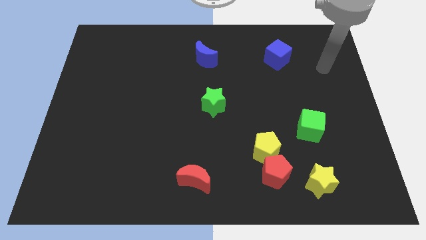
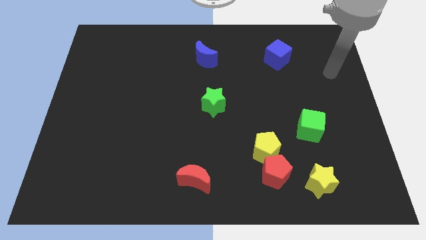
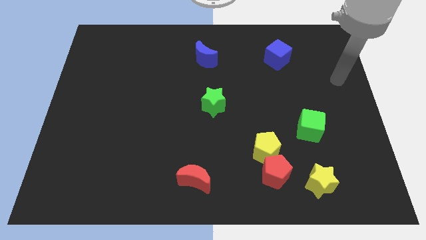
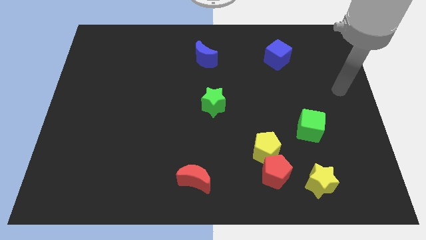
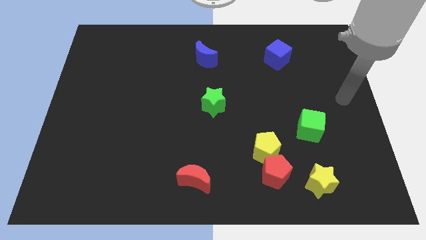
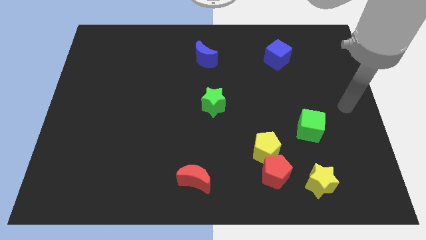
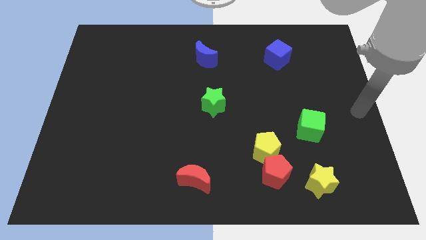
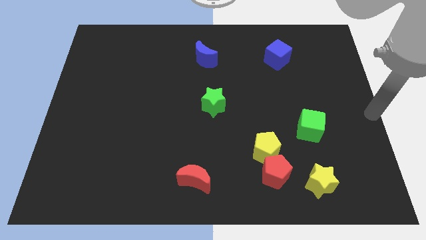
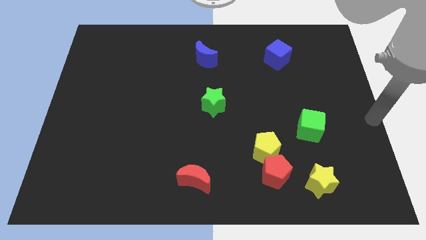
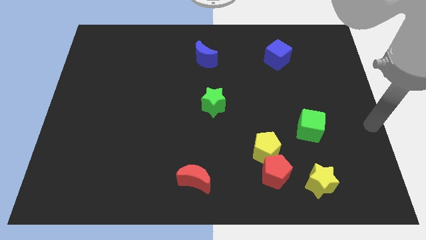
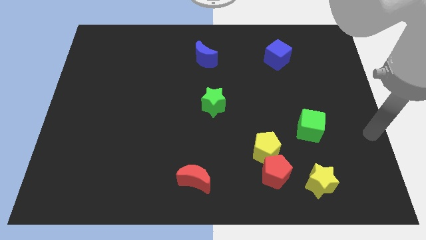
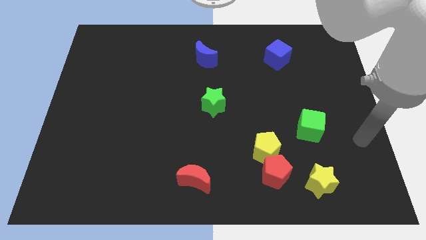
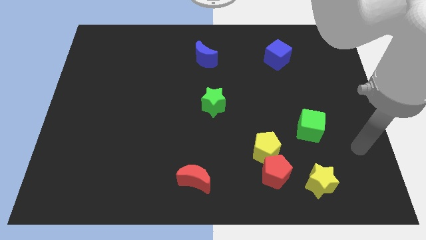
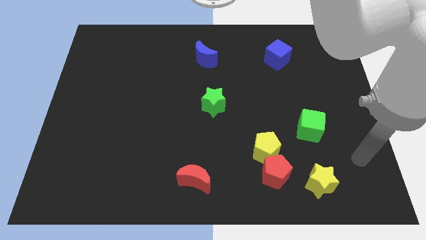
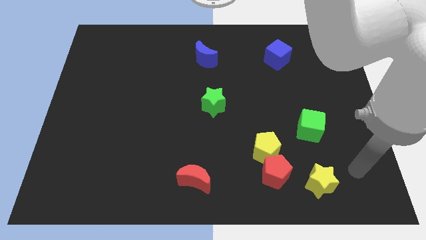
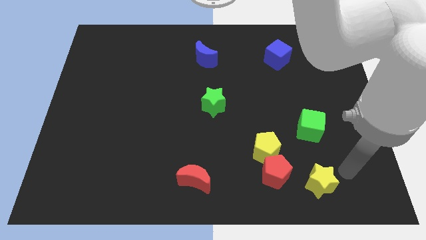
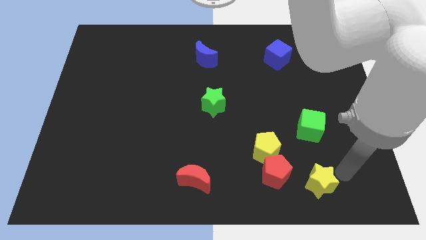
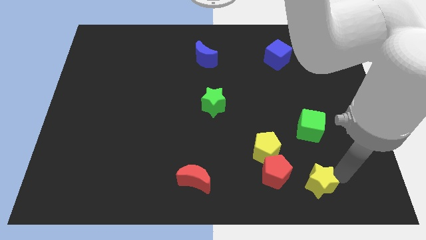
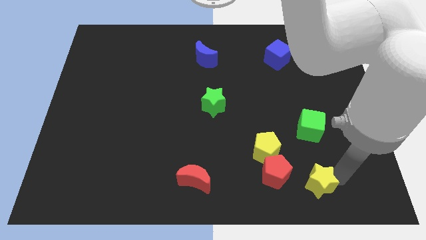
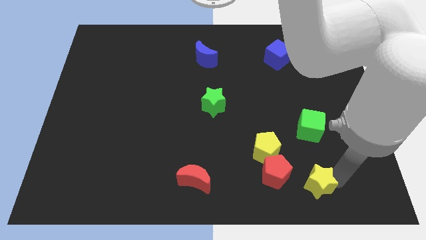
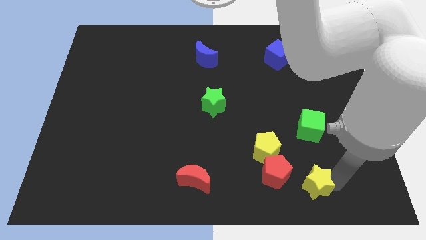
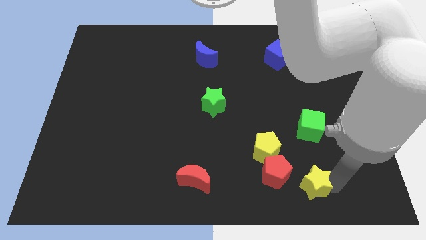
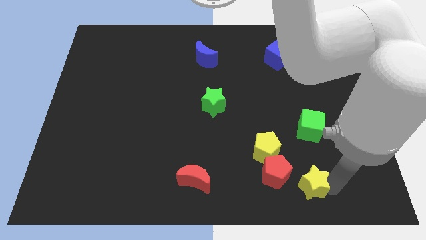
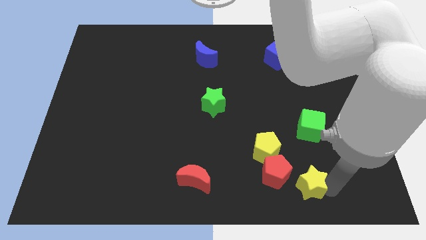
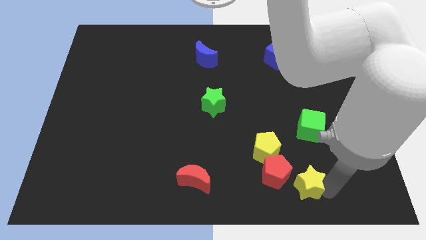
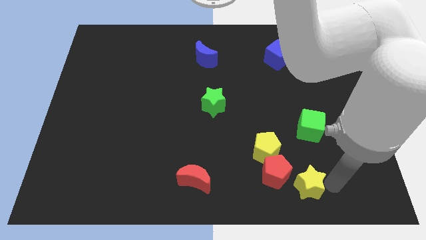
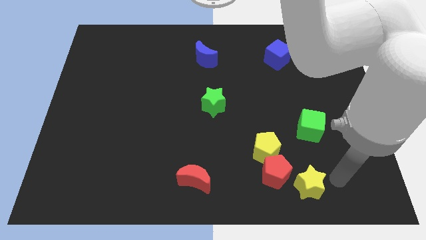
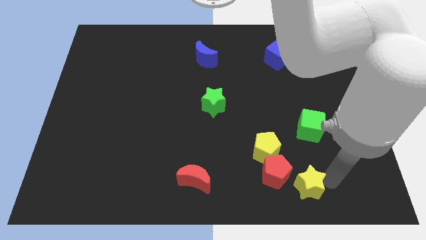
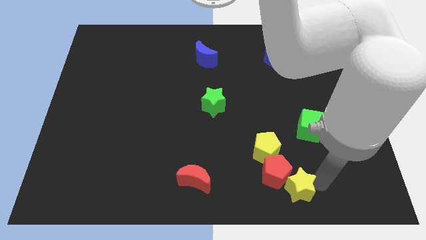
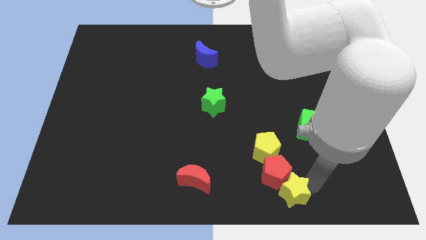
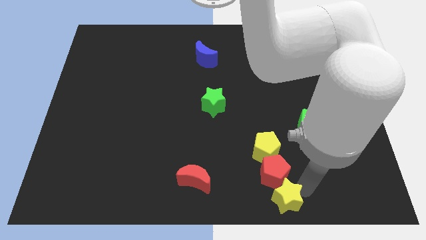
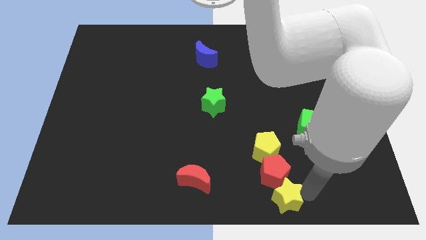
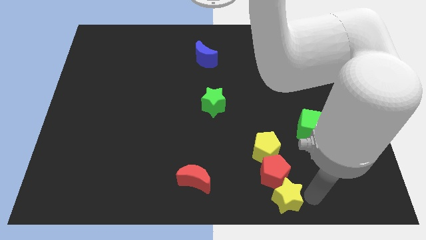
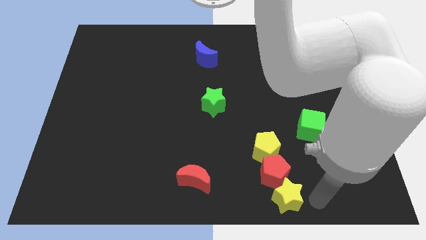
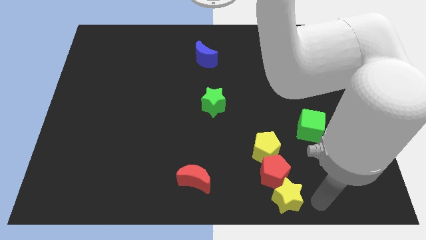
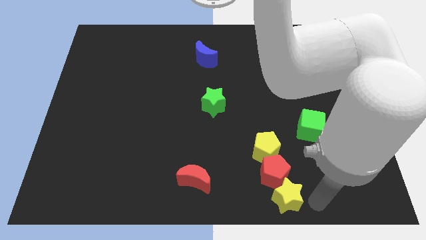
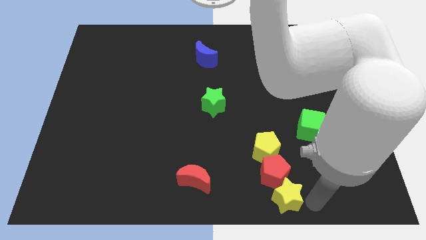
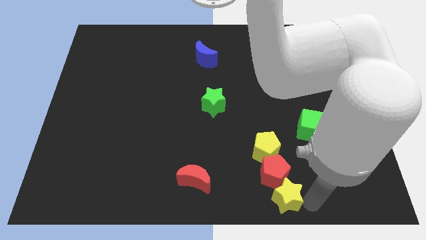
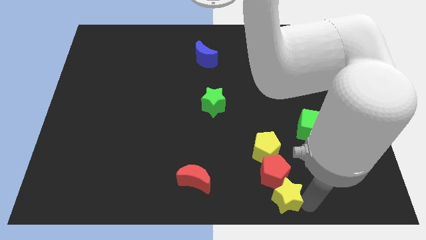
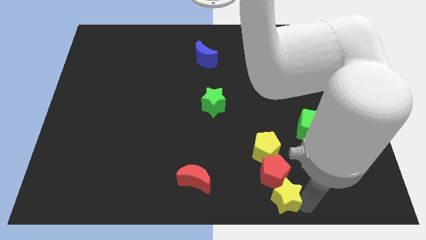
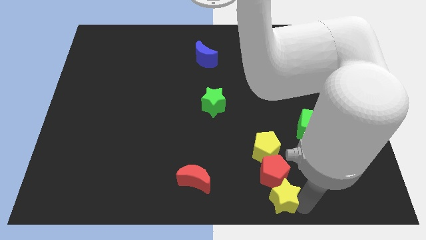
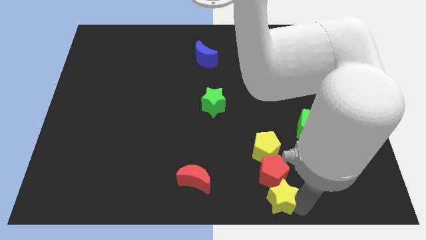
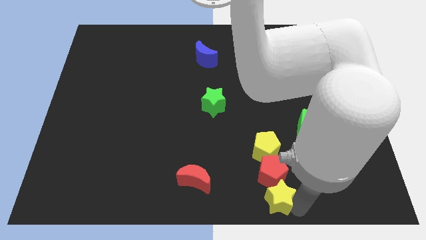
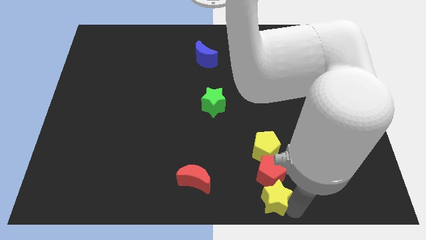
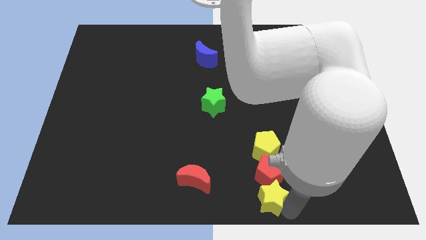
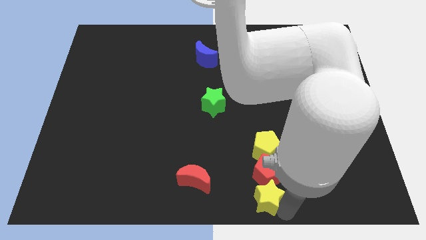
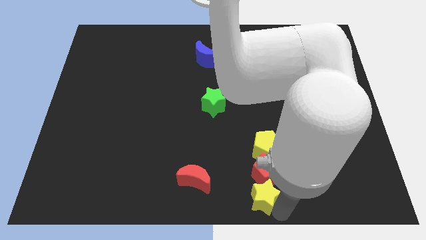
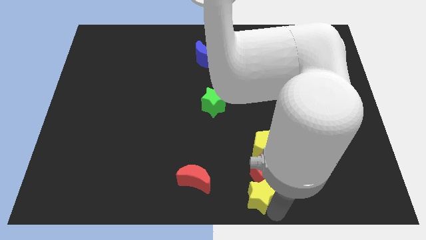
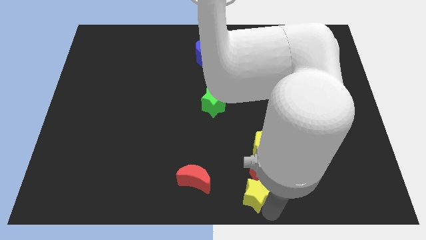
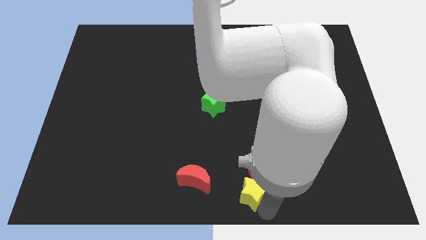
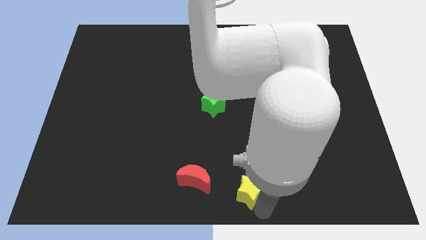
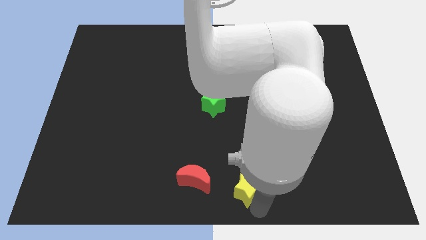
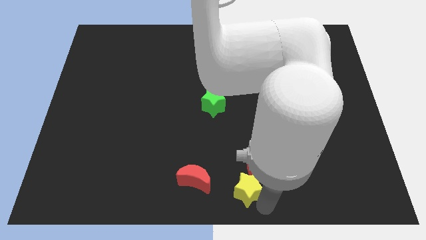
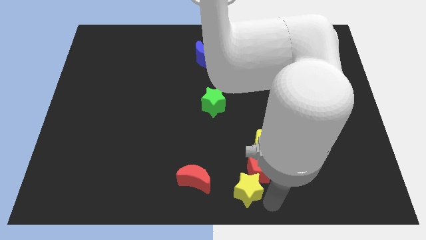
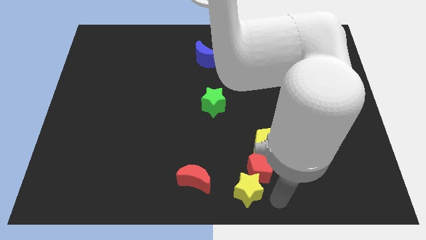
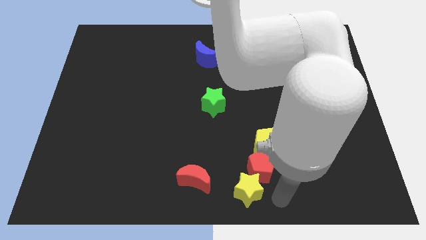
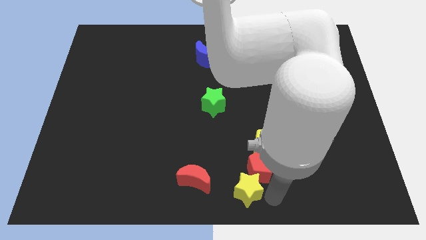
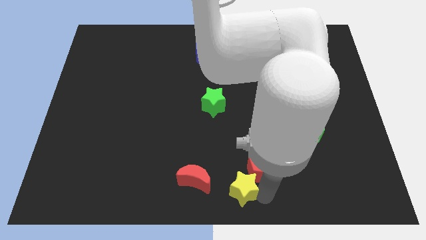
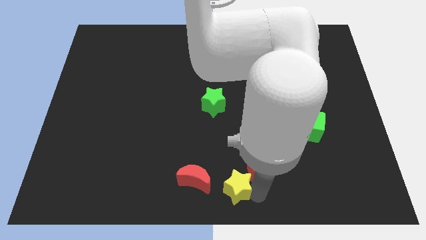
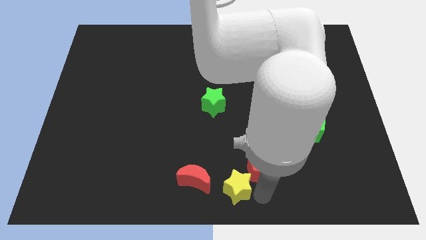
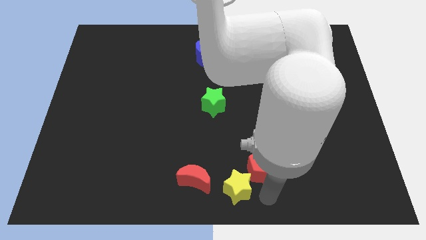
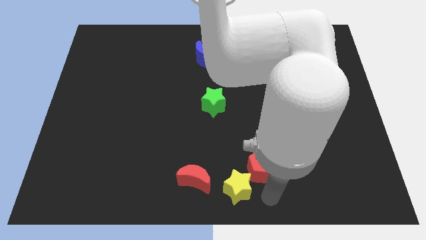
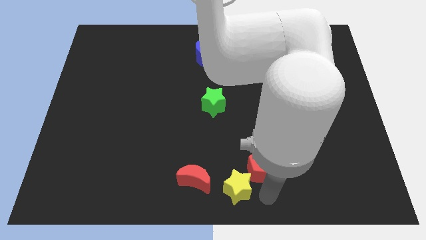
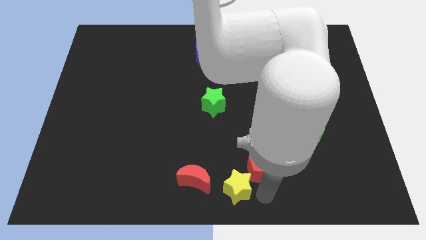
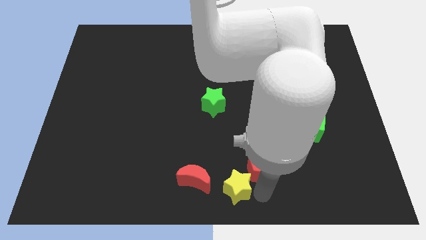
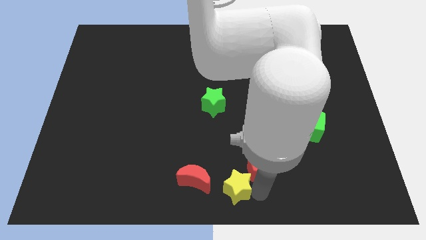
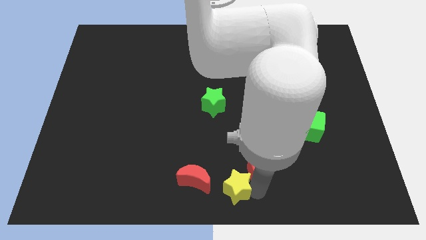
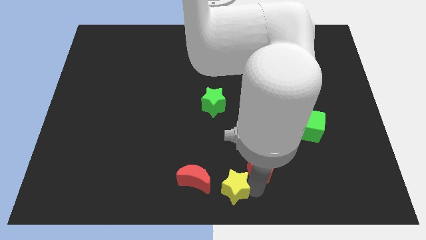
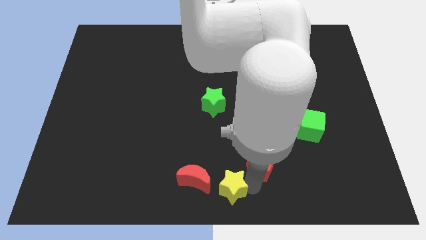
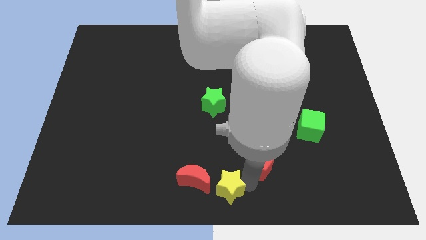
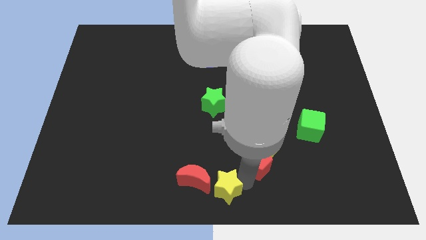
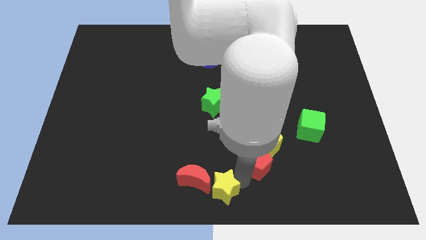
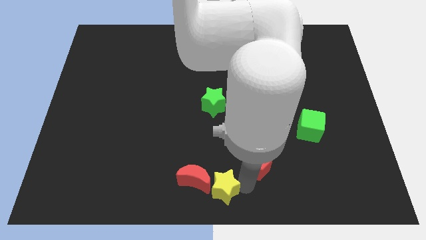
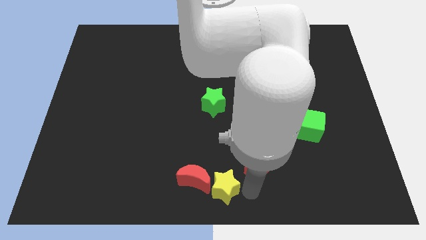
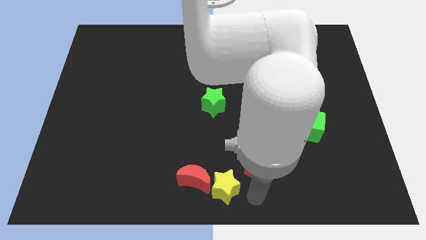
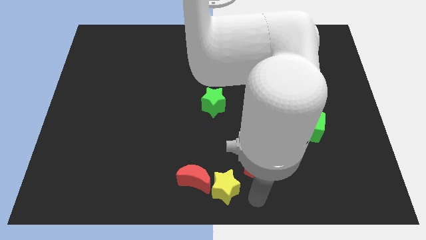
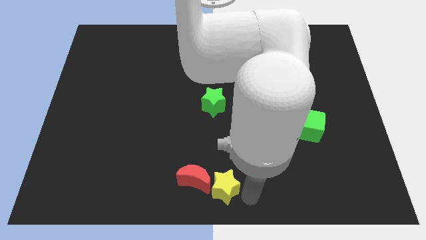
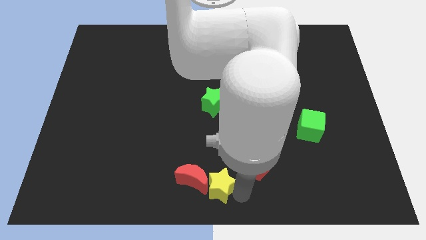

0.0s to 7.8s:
push the yellow star next to the red moon
